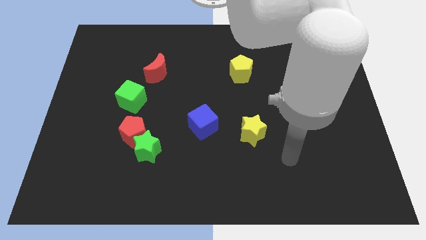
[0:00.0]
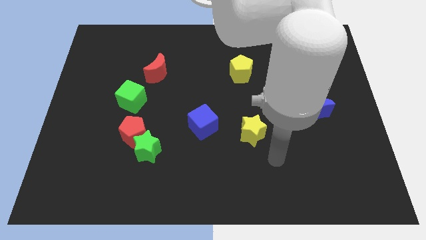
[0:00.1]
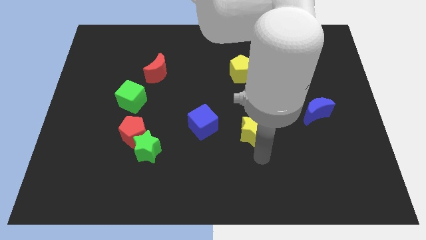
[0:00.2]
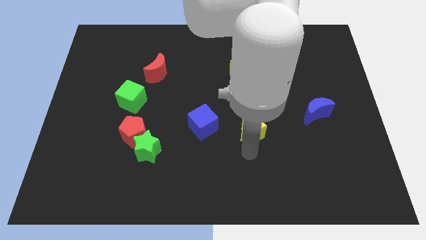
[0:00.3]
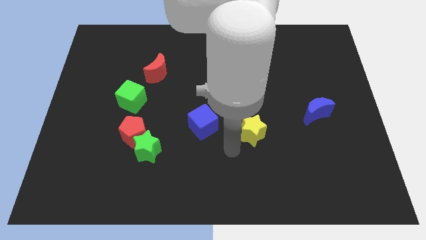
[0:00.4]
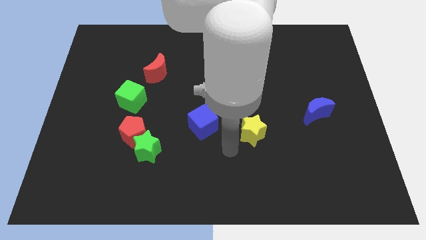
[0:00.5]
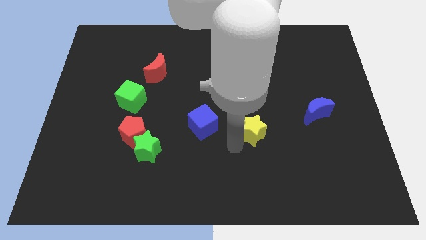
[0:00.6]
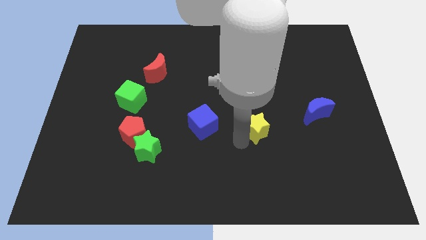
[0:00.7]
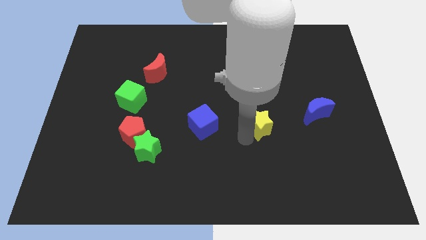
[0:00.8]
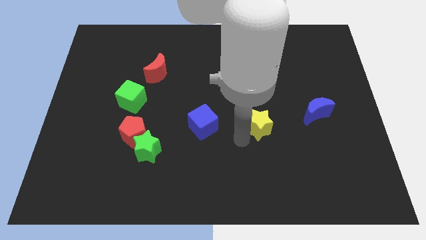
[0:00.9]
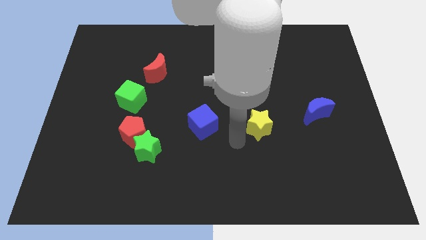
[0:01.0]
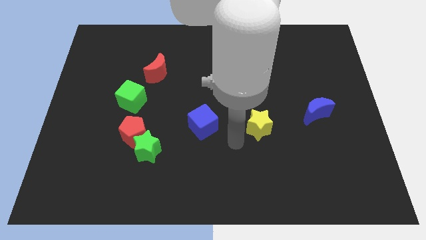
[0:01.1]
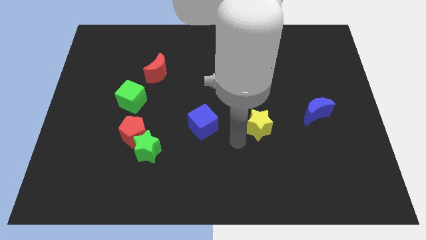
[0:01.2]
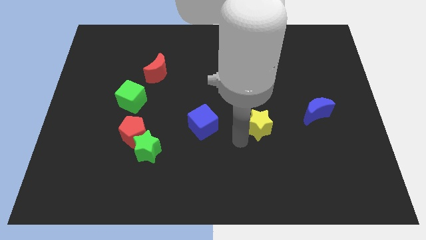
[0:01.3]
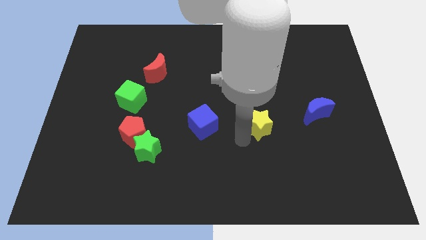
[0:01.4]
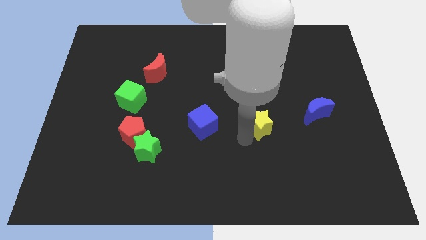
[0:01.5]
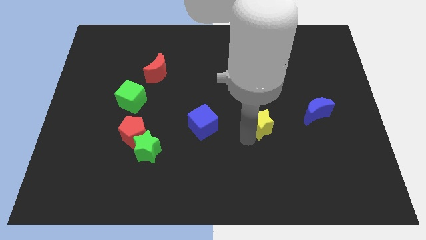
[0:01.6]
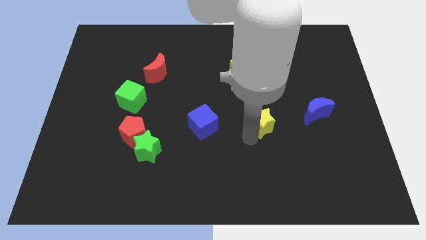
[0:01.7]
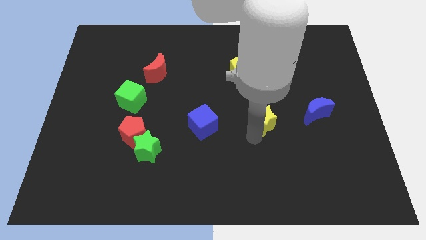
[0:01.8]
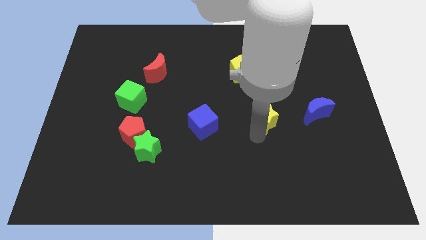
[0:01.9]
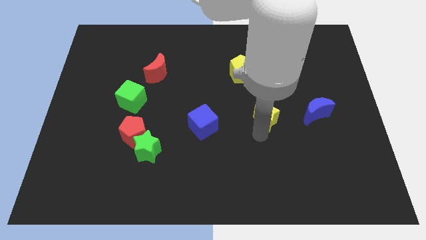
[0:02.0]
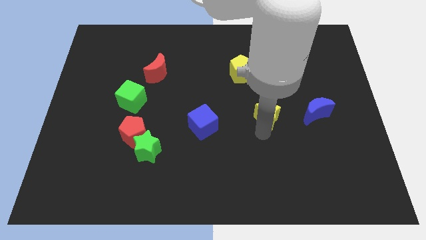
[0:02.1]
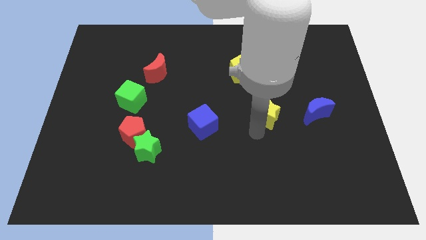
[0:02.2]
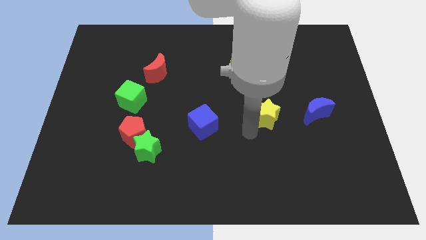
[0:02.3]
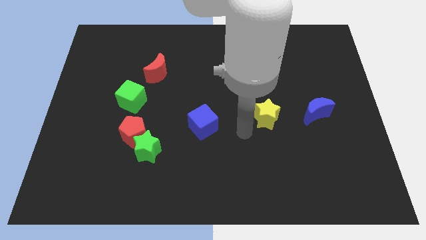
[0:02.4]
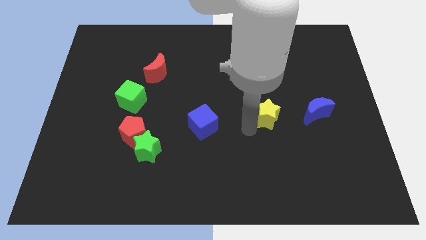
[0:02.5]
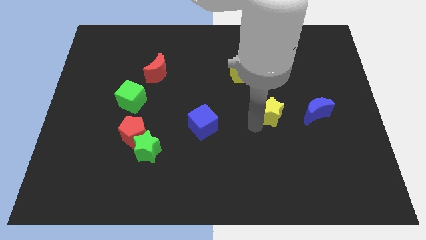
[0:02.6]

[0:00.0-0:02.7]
move the yellow star diagonally upwards and to the right slightly

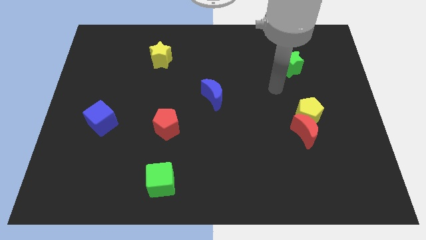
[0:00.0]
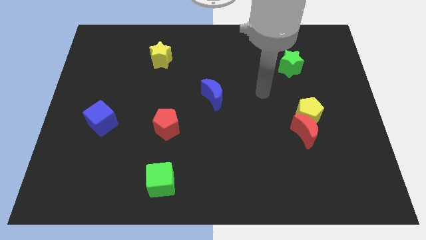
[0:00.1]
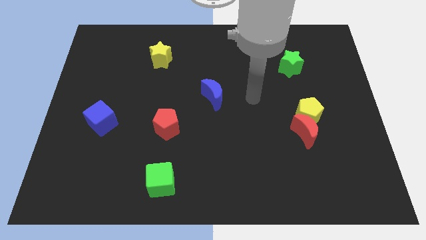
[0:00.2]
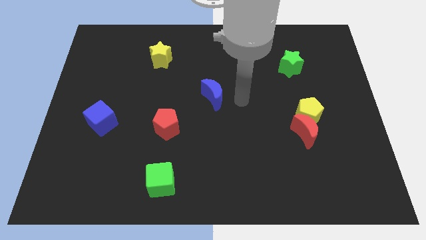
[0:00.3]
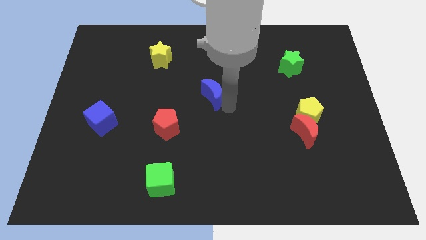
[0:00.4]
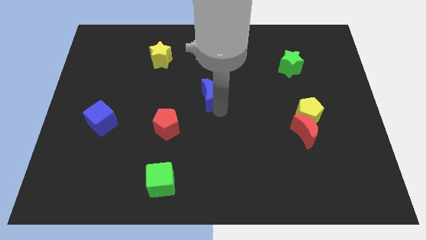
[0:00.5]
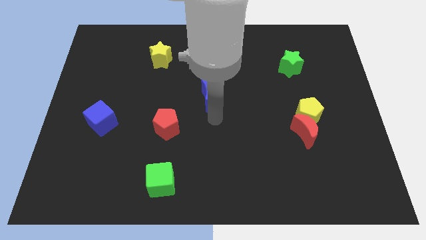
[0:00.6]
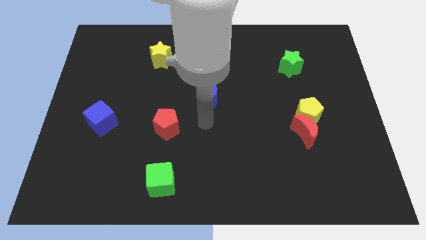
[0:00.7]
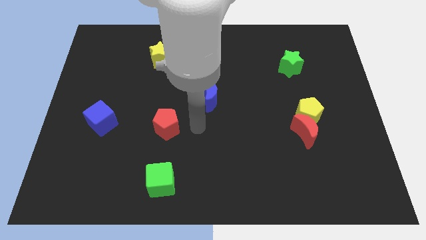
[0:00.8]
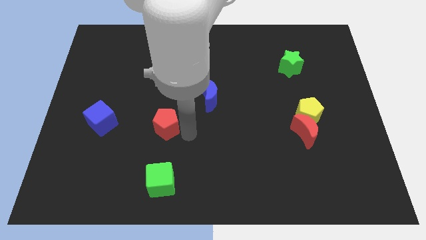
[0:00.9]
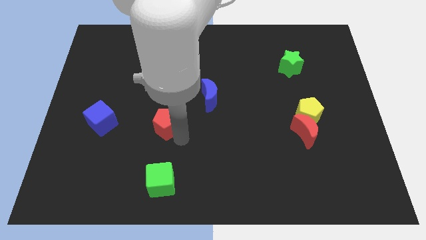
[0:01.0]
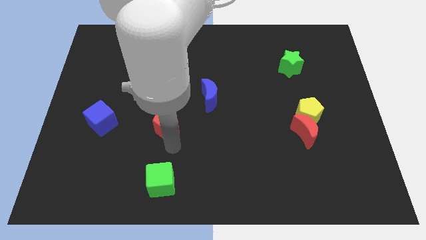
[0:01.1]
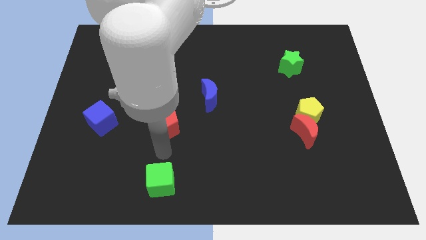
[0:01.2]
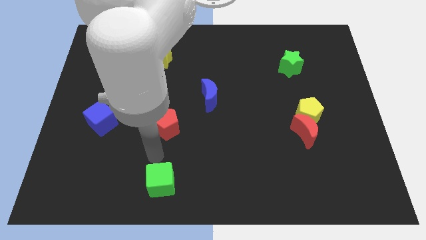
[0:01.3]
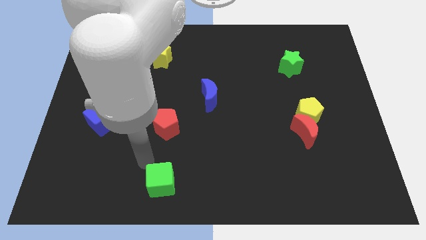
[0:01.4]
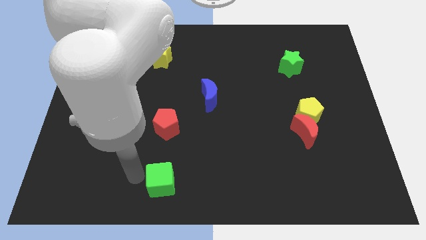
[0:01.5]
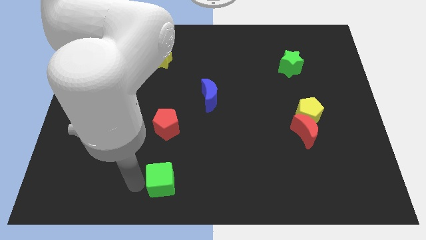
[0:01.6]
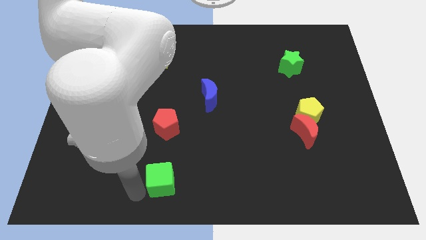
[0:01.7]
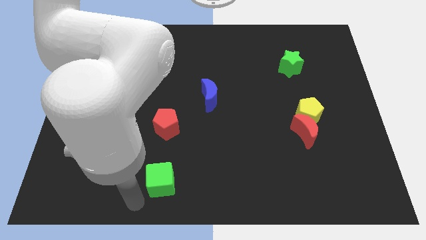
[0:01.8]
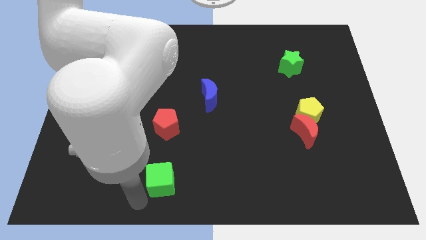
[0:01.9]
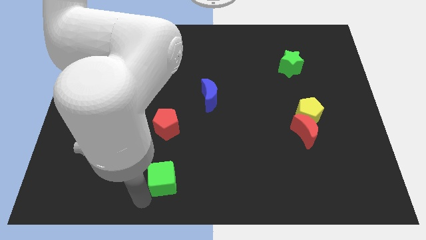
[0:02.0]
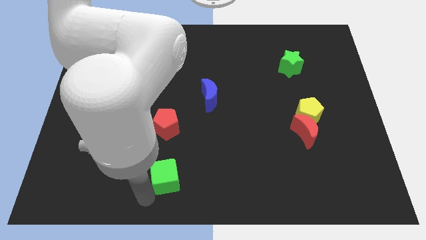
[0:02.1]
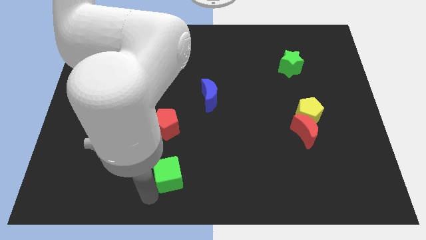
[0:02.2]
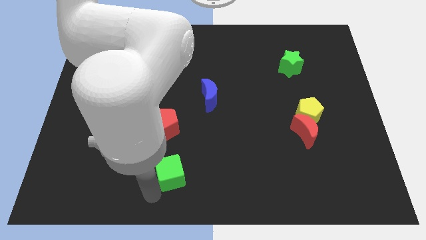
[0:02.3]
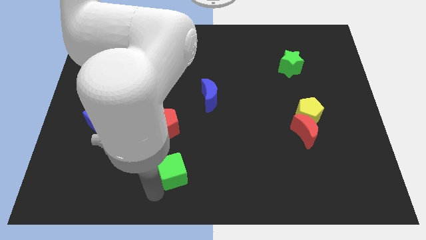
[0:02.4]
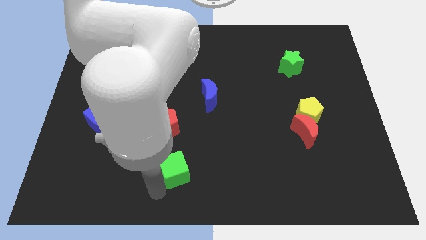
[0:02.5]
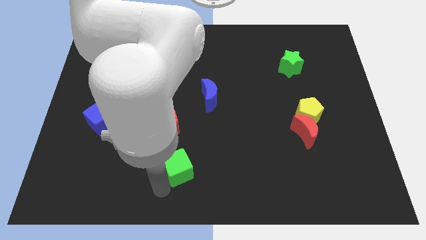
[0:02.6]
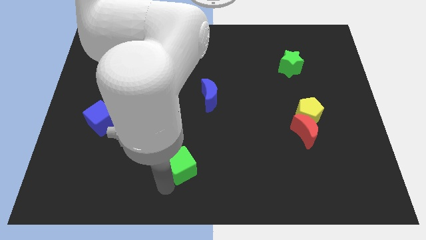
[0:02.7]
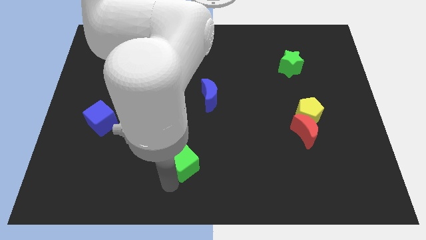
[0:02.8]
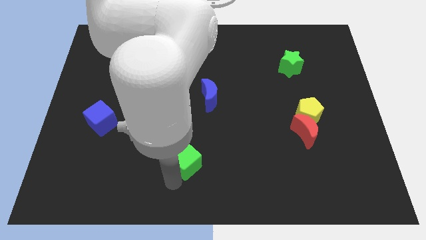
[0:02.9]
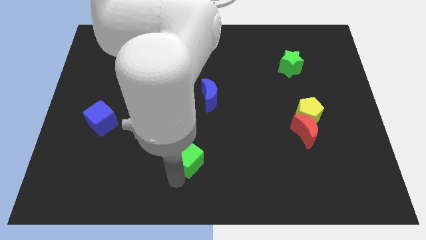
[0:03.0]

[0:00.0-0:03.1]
move the green cube a little bit up and to the right

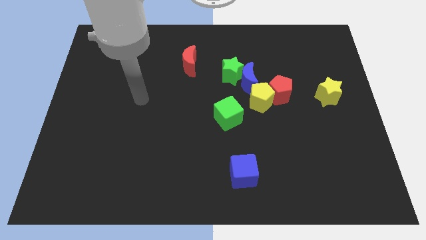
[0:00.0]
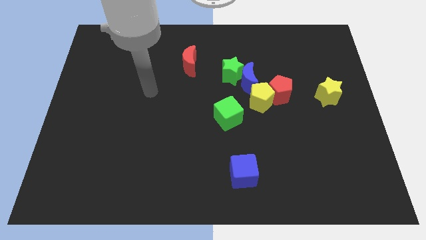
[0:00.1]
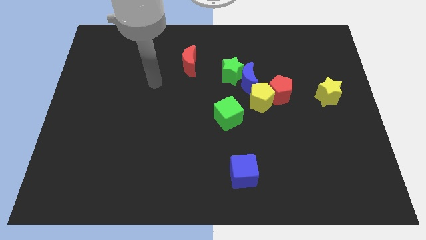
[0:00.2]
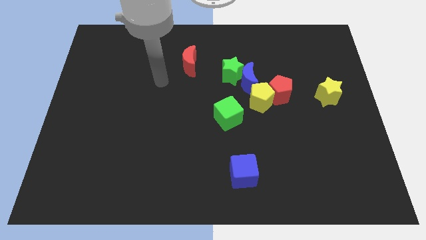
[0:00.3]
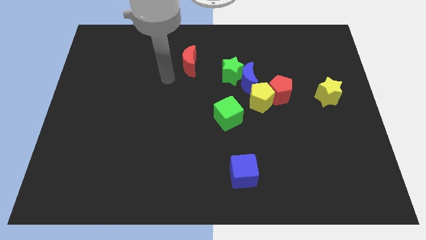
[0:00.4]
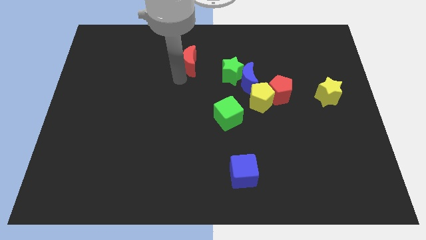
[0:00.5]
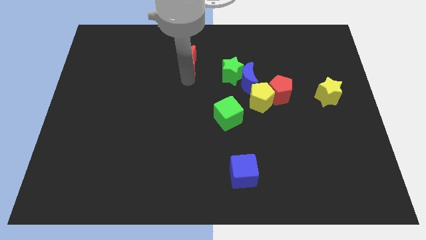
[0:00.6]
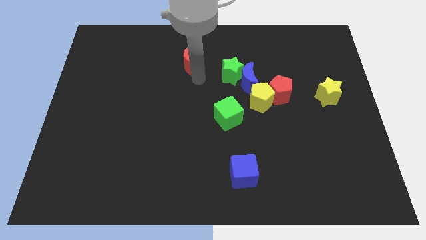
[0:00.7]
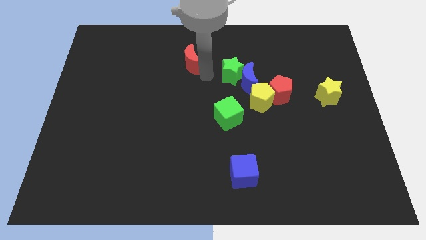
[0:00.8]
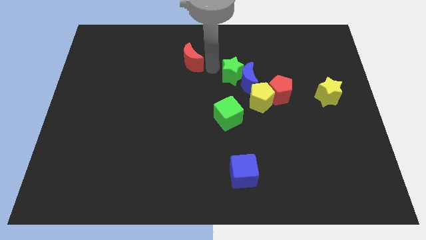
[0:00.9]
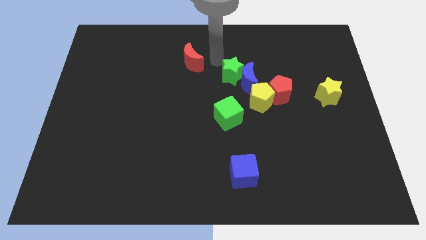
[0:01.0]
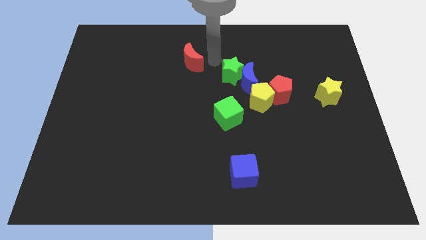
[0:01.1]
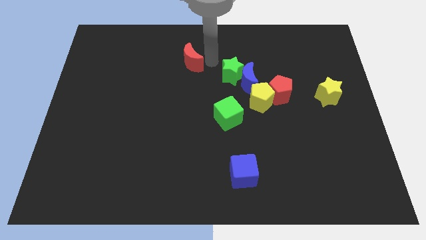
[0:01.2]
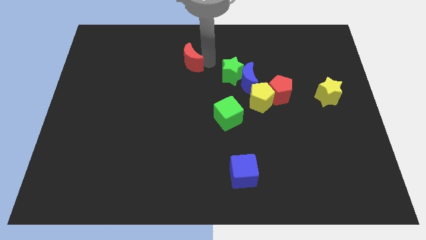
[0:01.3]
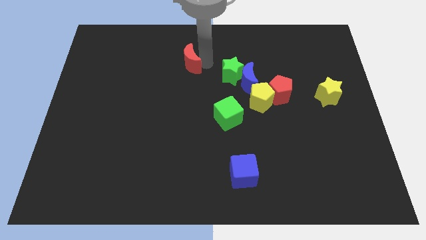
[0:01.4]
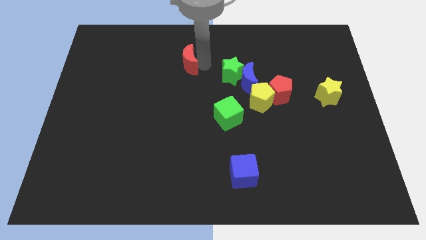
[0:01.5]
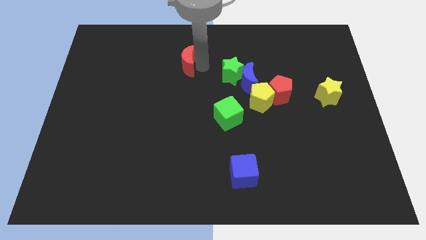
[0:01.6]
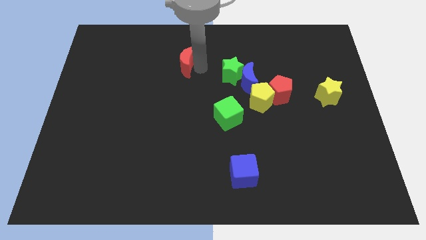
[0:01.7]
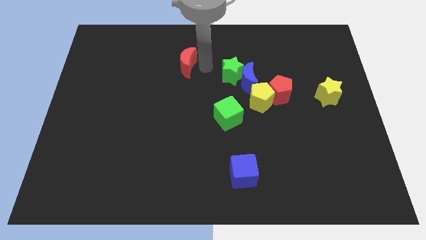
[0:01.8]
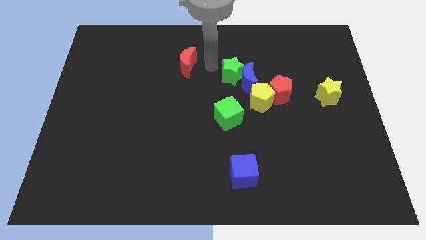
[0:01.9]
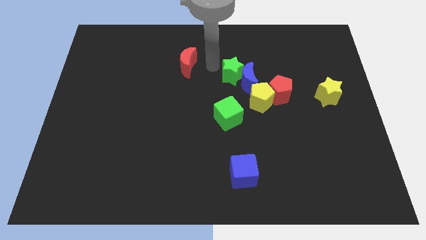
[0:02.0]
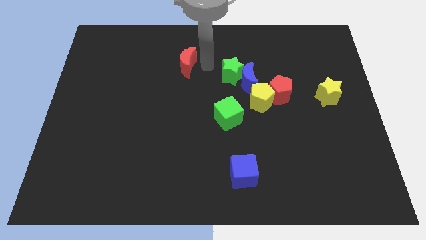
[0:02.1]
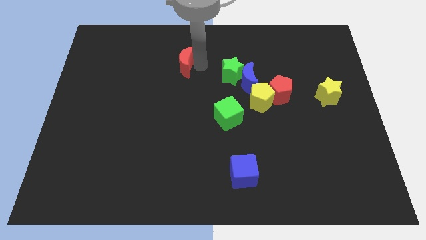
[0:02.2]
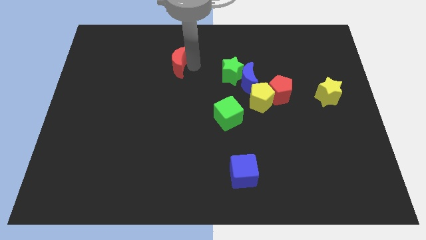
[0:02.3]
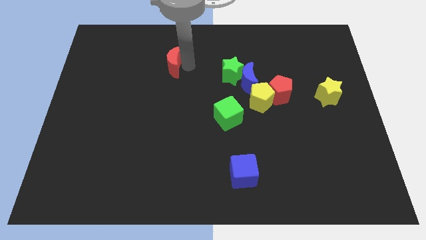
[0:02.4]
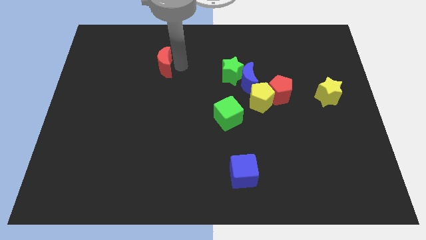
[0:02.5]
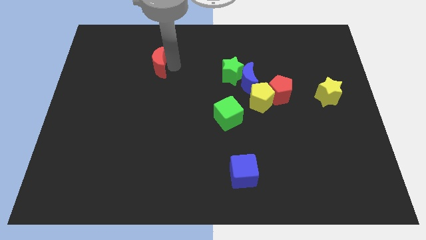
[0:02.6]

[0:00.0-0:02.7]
slide the red moon a little left
